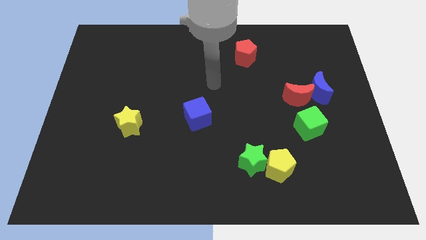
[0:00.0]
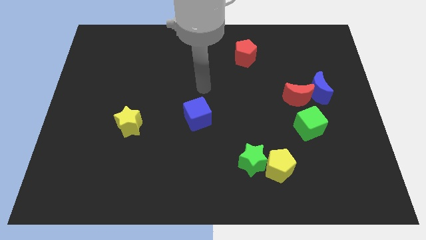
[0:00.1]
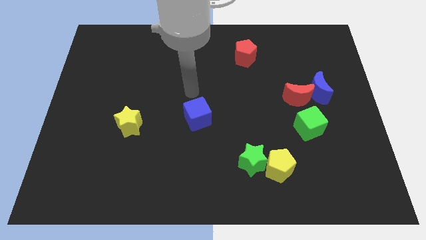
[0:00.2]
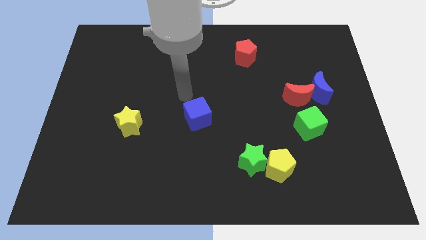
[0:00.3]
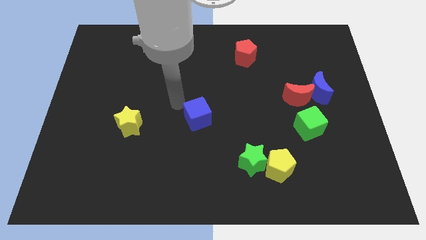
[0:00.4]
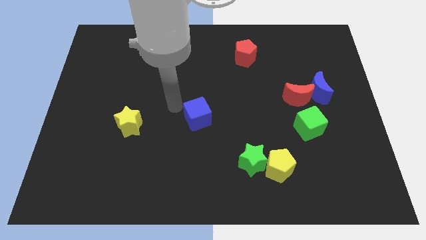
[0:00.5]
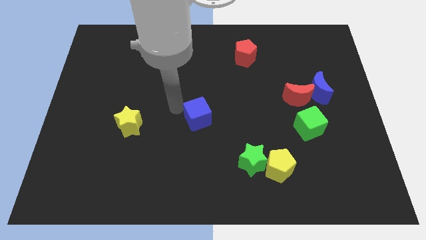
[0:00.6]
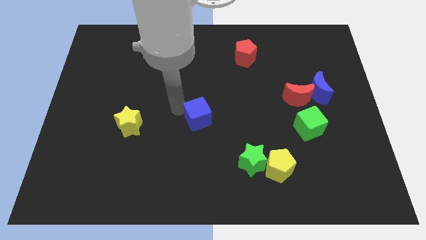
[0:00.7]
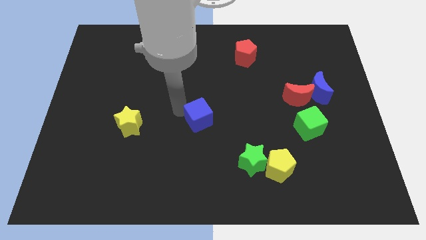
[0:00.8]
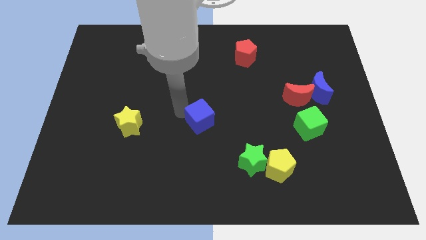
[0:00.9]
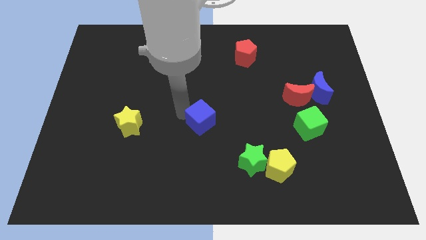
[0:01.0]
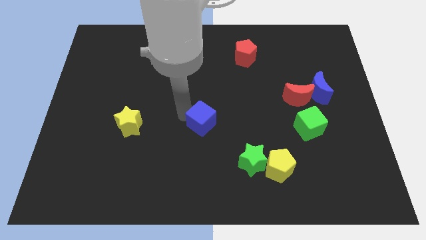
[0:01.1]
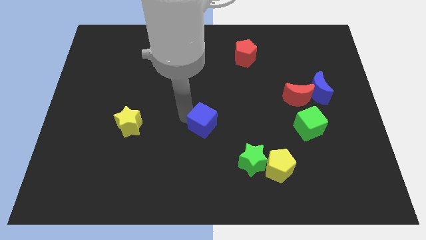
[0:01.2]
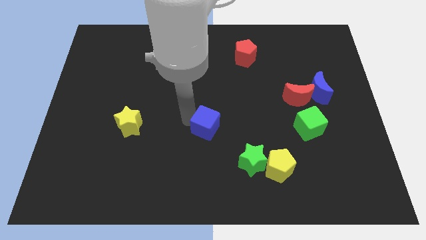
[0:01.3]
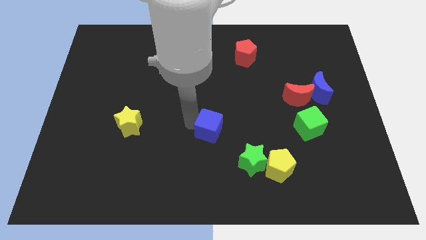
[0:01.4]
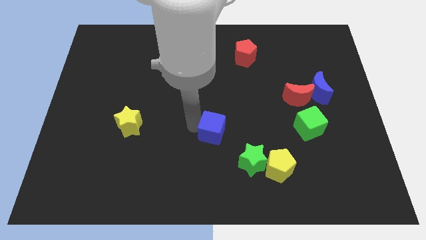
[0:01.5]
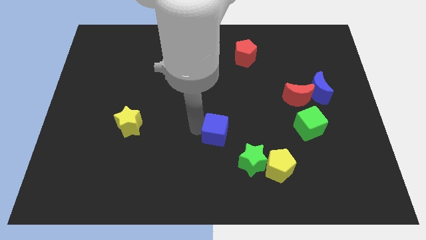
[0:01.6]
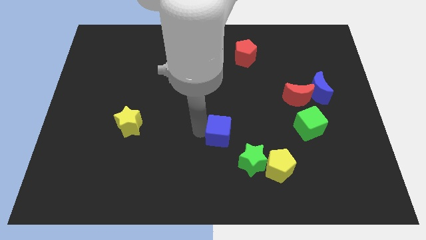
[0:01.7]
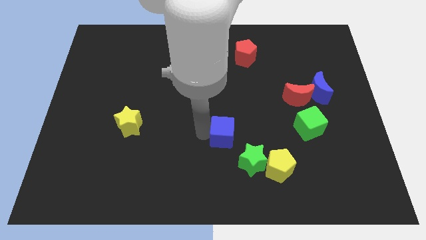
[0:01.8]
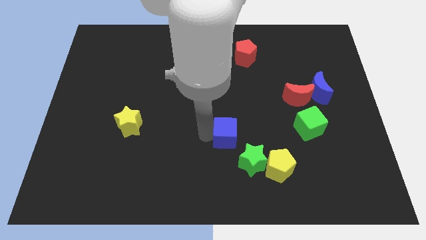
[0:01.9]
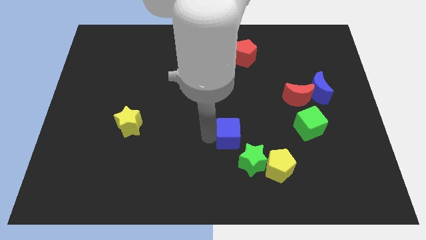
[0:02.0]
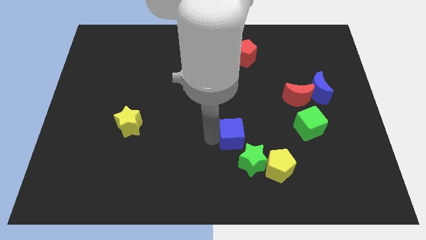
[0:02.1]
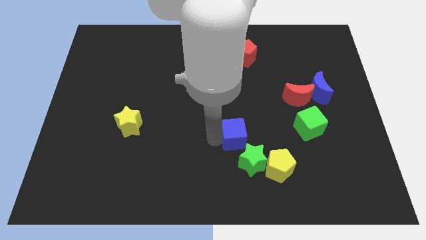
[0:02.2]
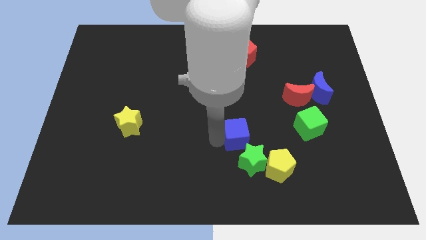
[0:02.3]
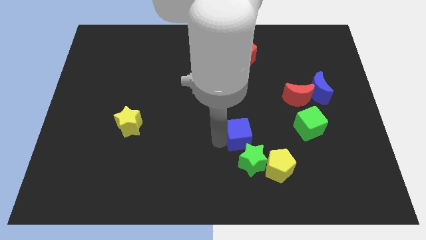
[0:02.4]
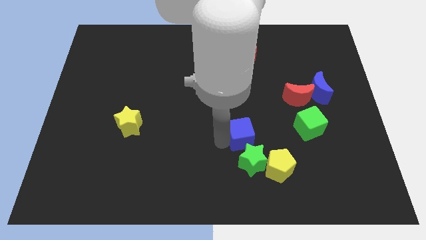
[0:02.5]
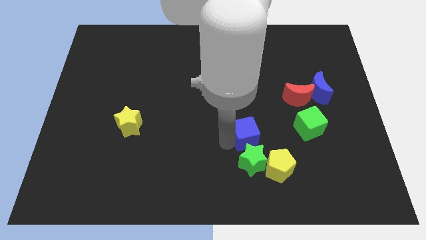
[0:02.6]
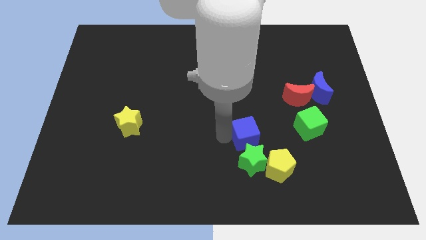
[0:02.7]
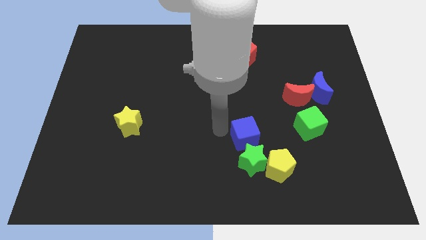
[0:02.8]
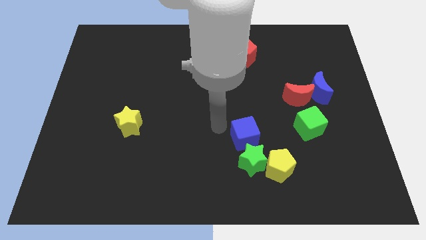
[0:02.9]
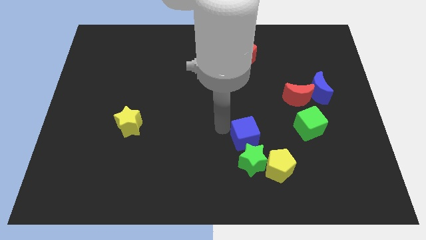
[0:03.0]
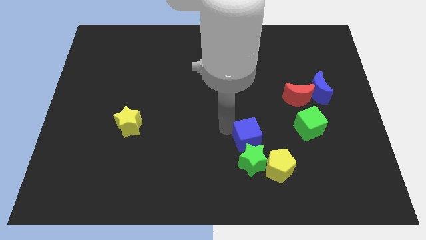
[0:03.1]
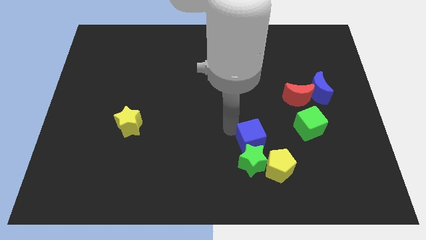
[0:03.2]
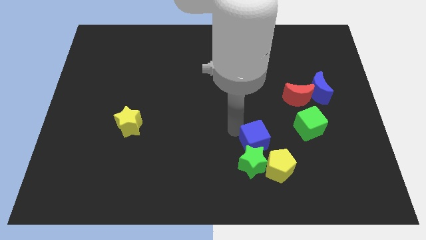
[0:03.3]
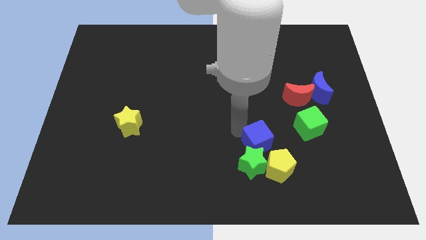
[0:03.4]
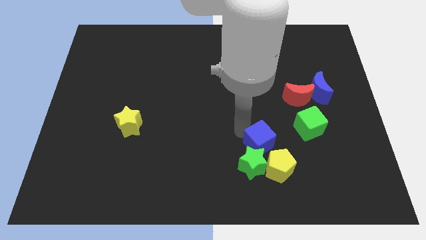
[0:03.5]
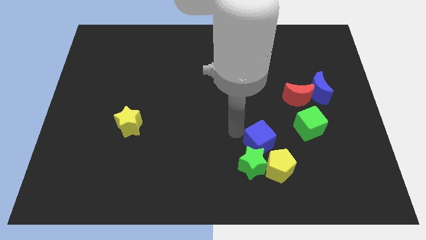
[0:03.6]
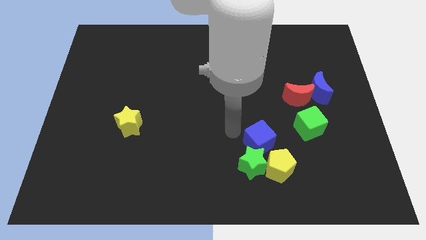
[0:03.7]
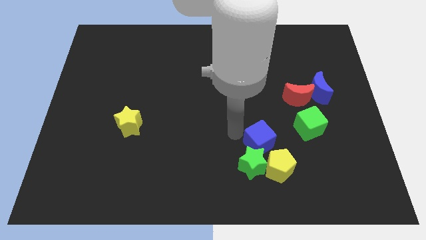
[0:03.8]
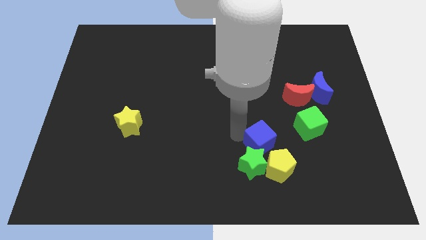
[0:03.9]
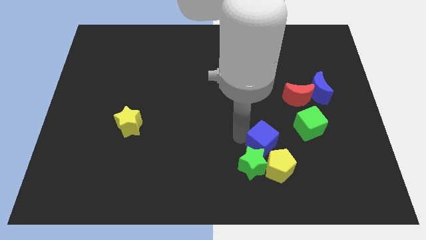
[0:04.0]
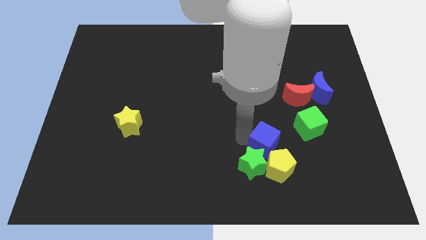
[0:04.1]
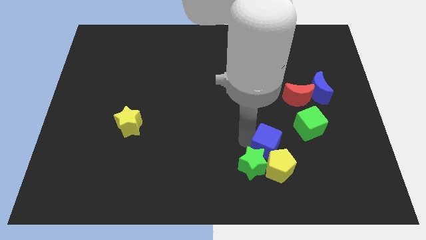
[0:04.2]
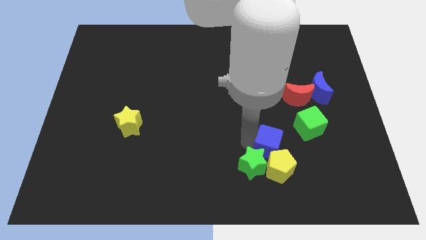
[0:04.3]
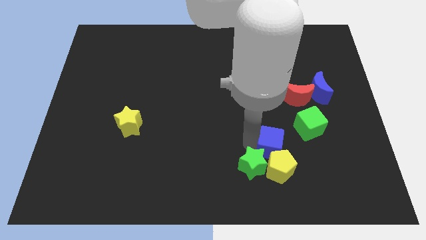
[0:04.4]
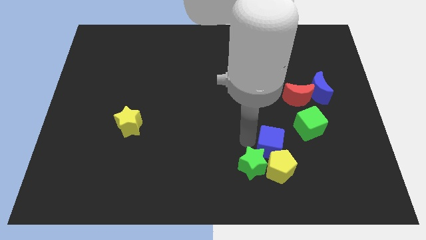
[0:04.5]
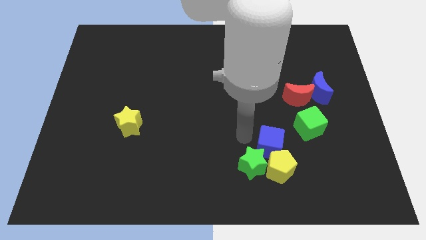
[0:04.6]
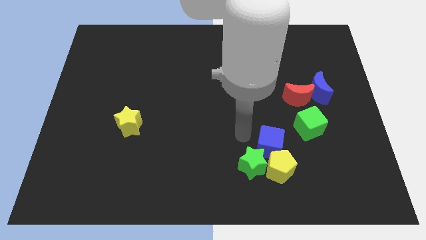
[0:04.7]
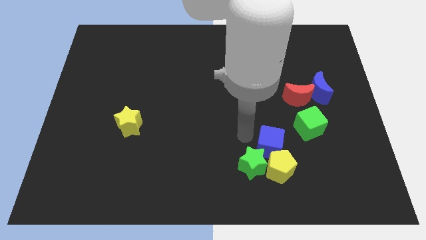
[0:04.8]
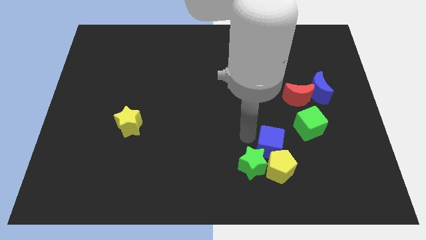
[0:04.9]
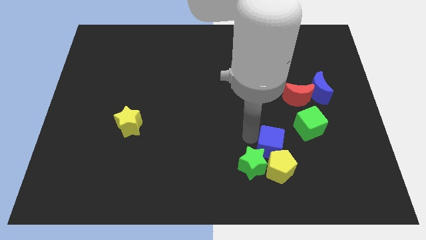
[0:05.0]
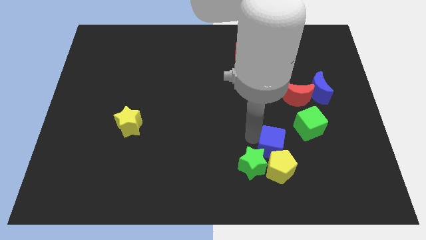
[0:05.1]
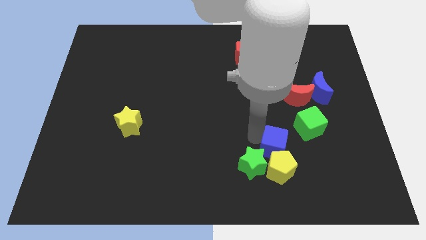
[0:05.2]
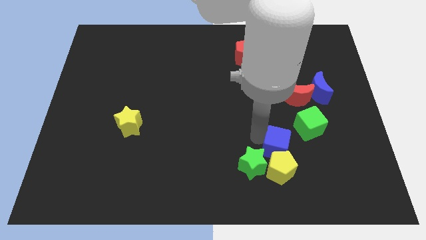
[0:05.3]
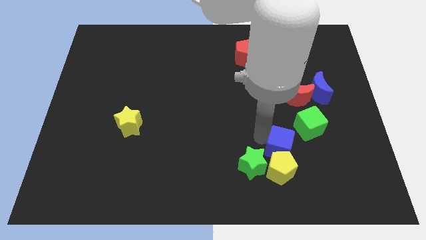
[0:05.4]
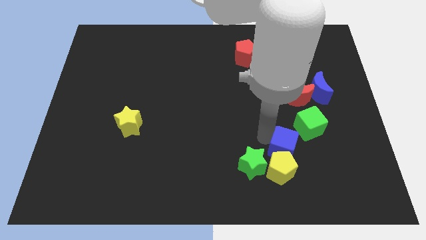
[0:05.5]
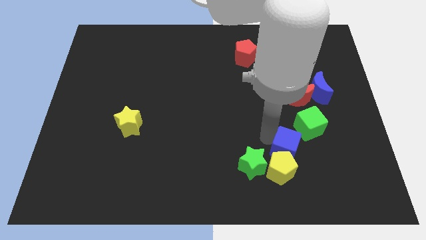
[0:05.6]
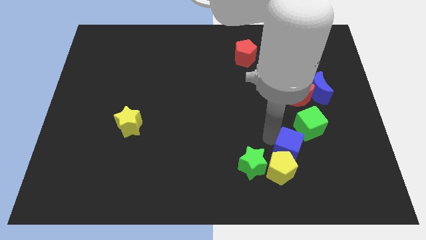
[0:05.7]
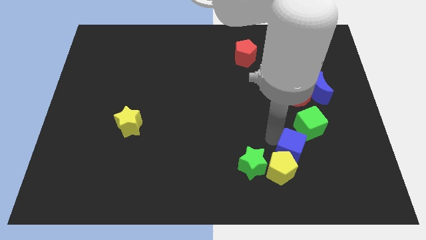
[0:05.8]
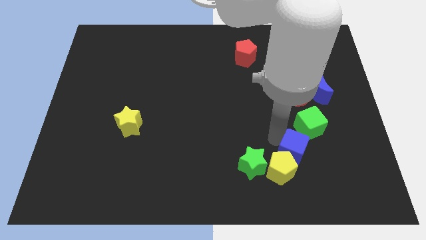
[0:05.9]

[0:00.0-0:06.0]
push the blue cube to the bottom of the green cube

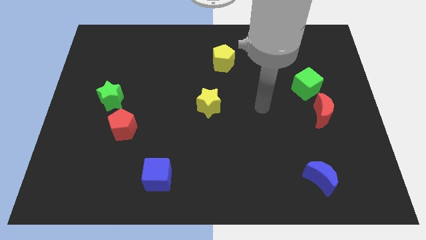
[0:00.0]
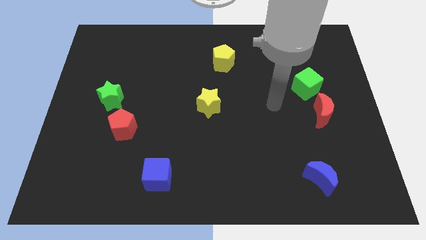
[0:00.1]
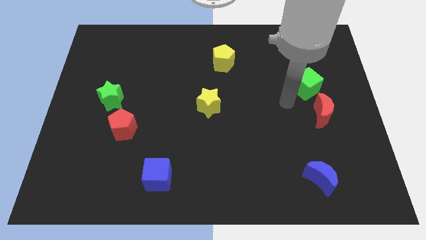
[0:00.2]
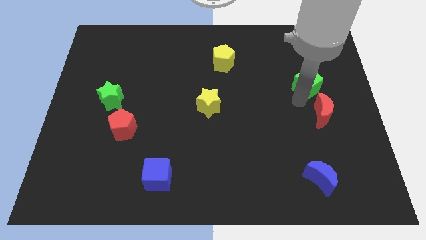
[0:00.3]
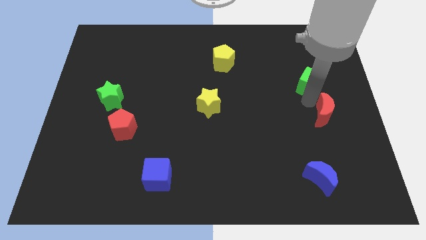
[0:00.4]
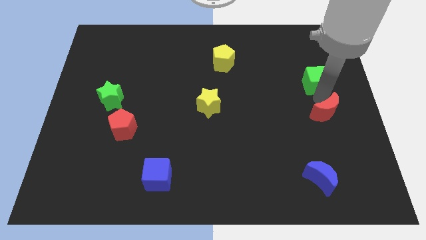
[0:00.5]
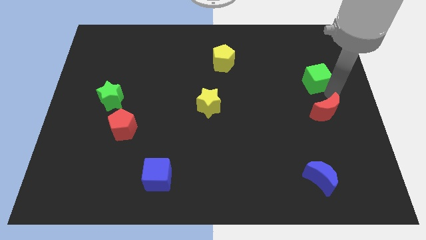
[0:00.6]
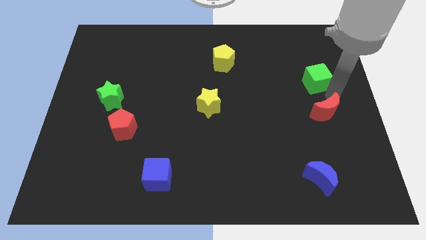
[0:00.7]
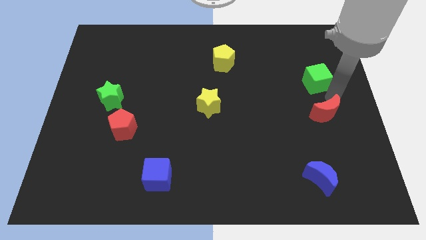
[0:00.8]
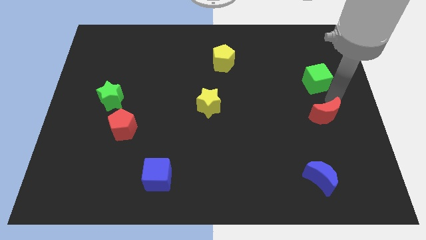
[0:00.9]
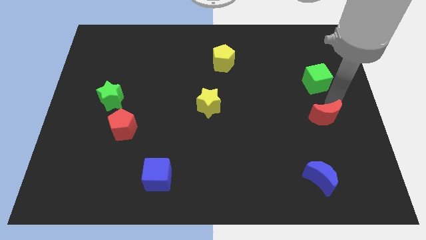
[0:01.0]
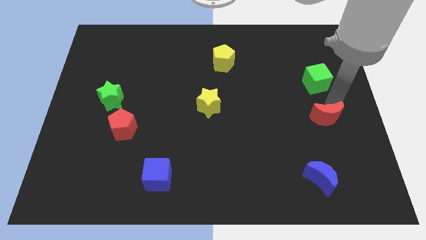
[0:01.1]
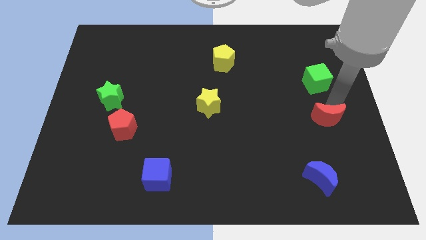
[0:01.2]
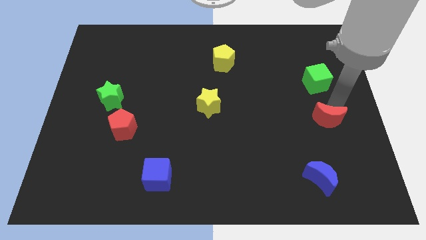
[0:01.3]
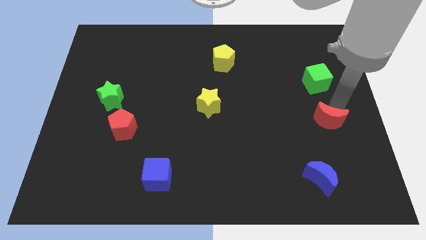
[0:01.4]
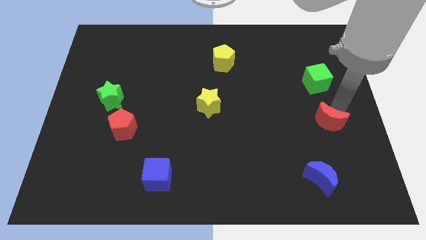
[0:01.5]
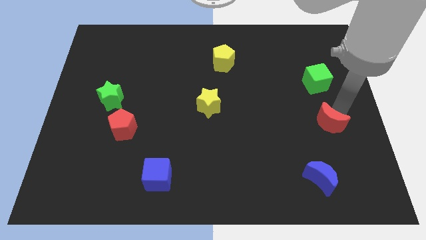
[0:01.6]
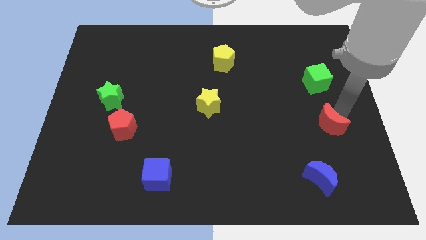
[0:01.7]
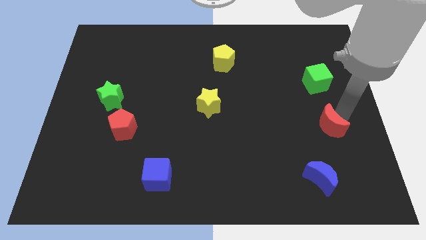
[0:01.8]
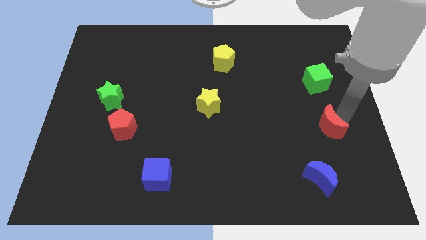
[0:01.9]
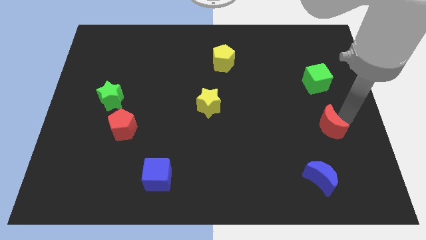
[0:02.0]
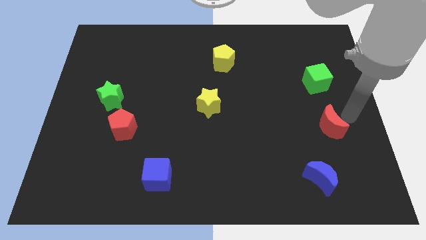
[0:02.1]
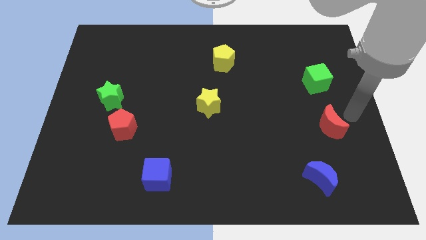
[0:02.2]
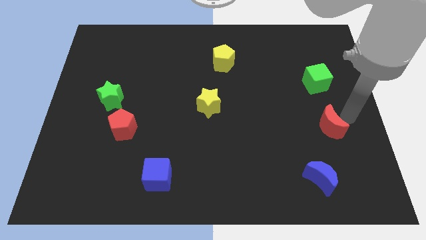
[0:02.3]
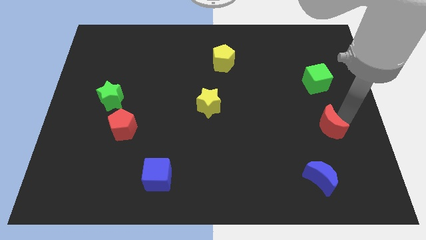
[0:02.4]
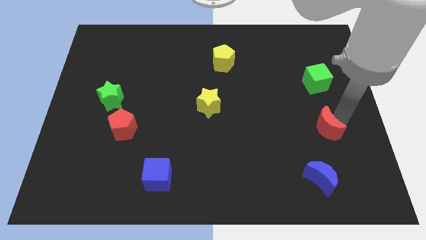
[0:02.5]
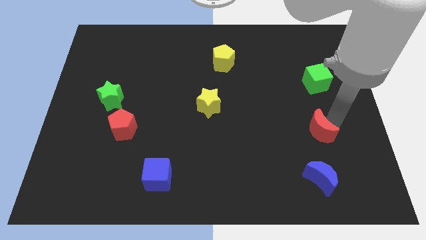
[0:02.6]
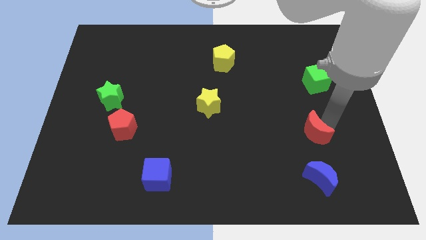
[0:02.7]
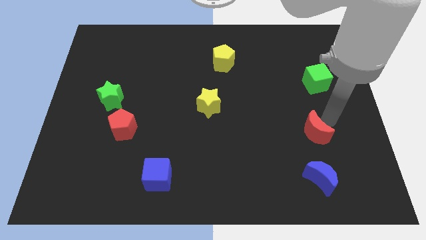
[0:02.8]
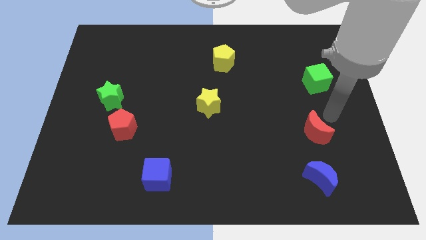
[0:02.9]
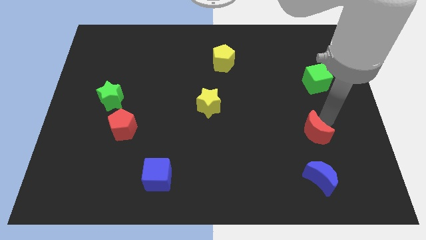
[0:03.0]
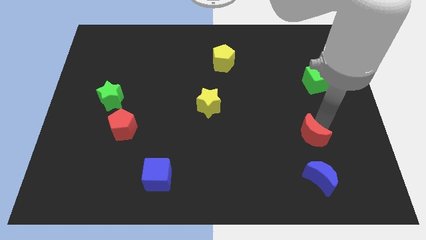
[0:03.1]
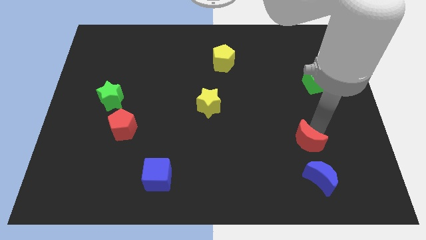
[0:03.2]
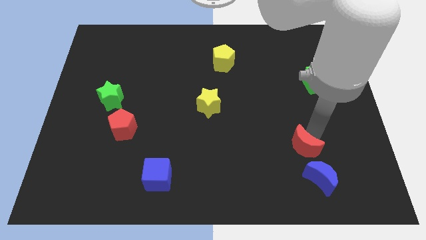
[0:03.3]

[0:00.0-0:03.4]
slide the red moon to the top left of the blue moon
